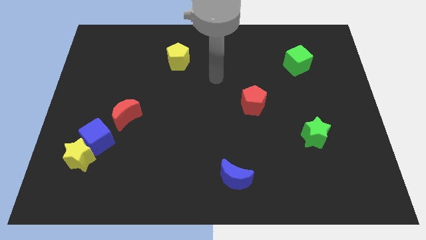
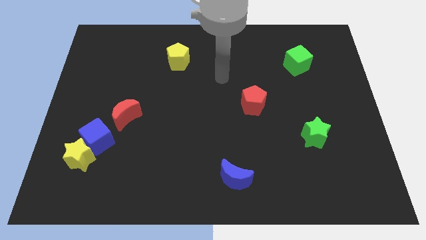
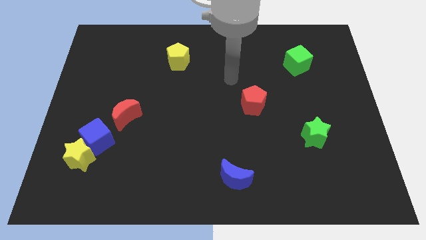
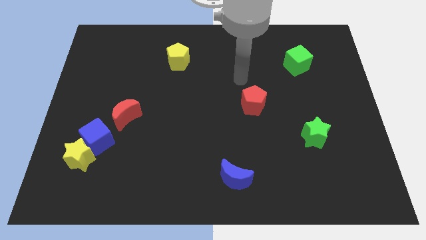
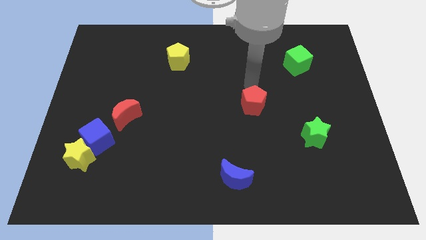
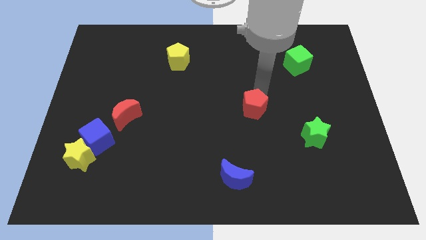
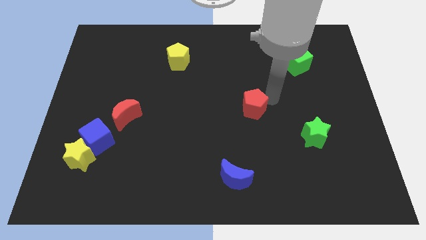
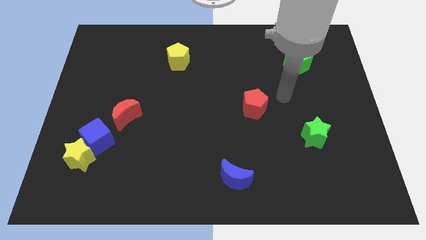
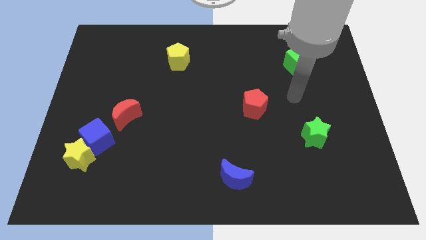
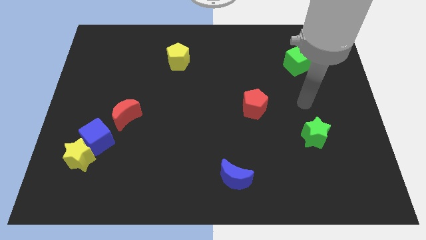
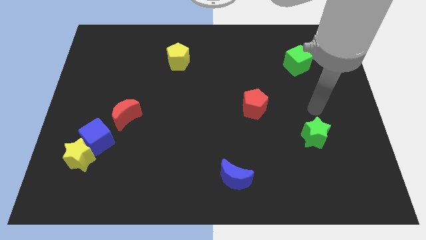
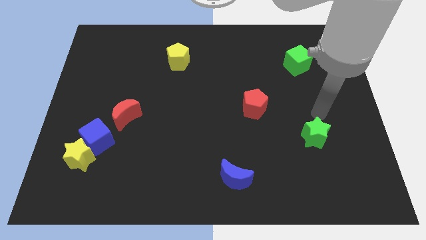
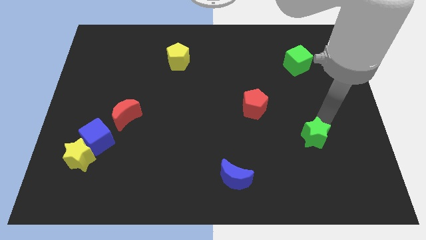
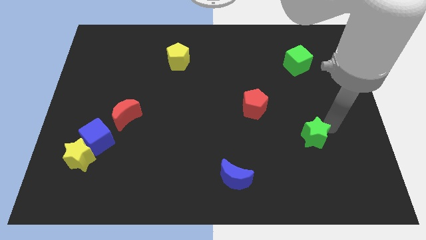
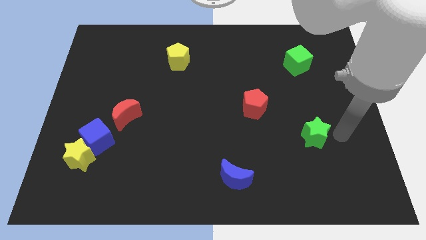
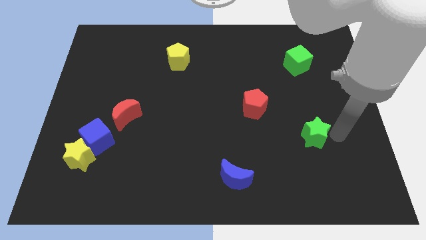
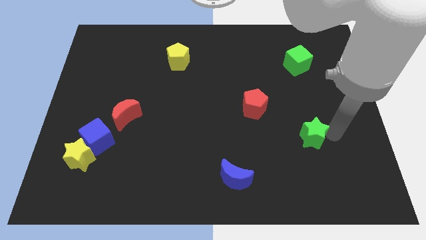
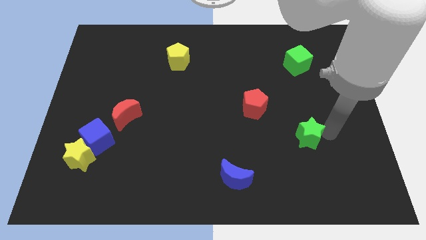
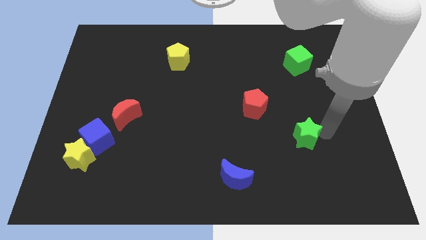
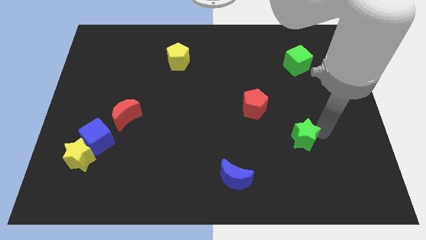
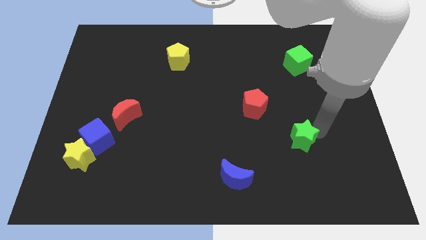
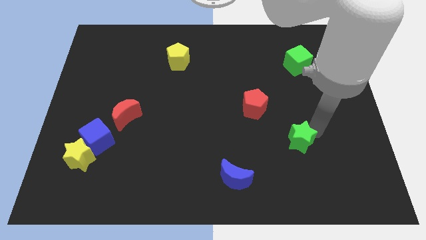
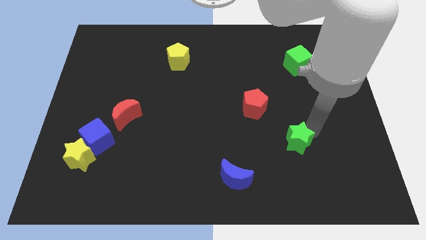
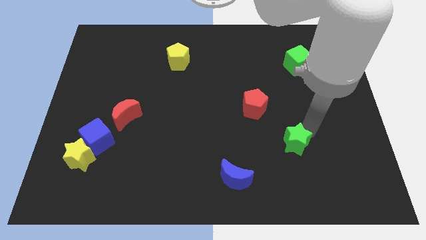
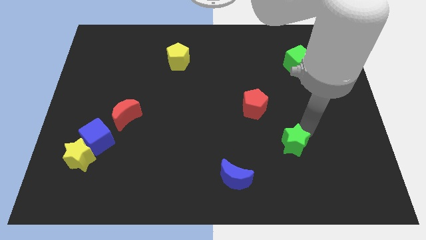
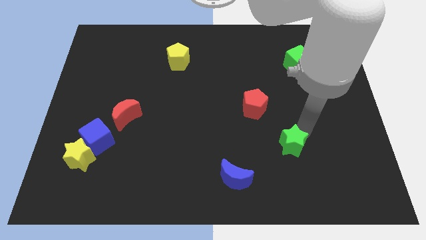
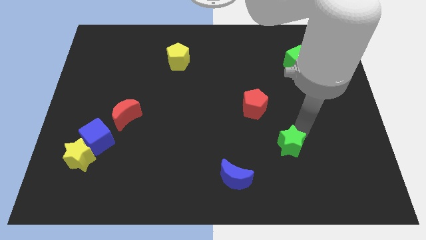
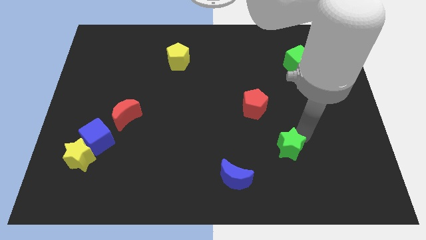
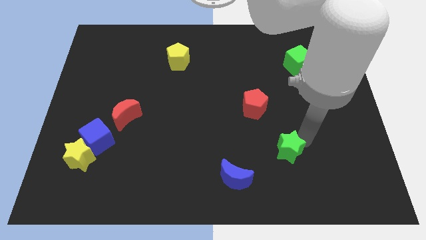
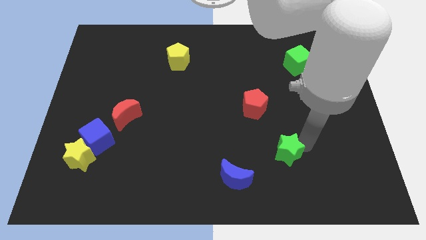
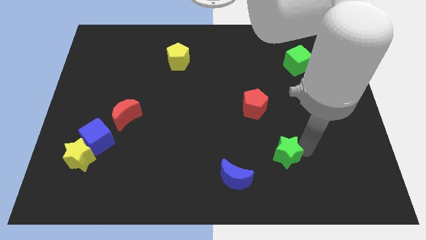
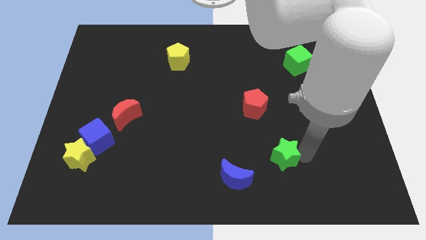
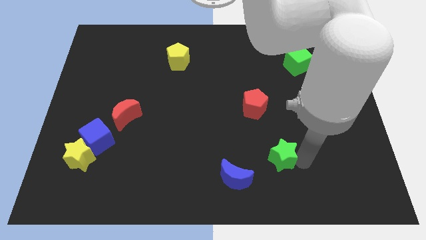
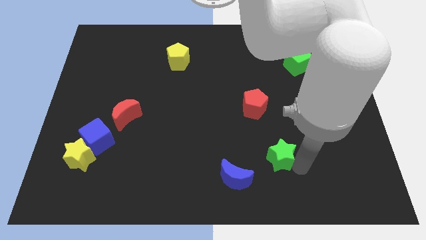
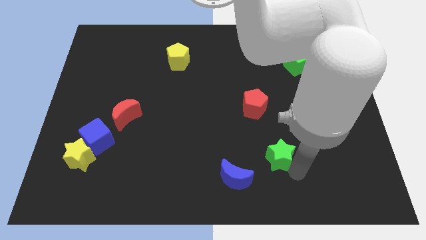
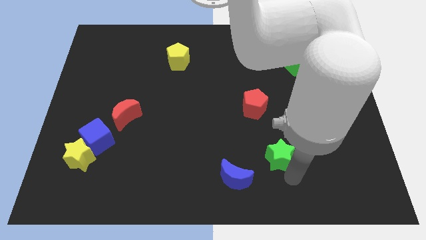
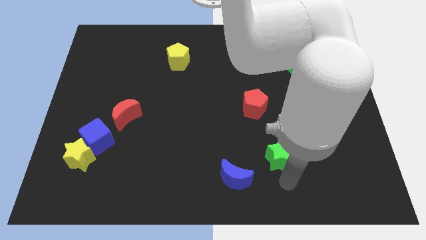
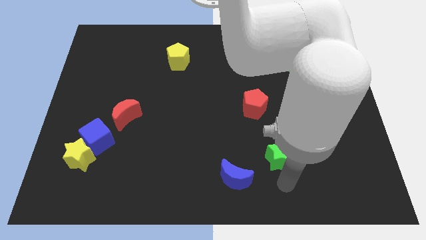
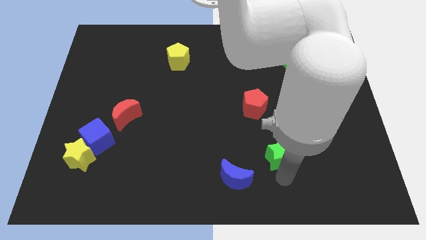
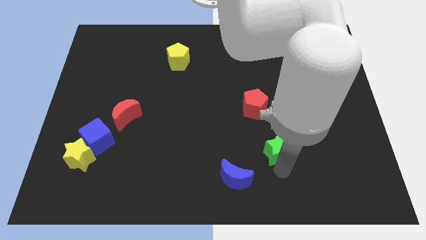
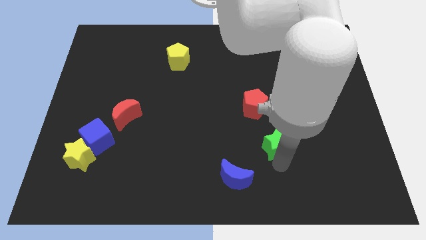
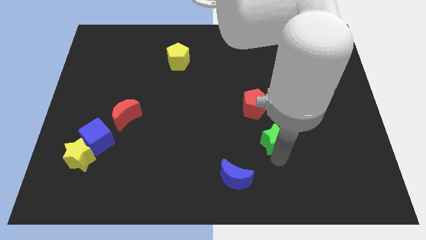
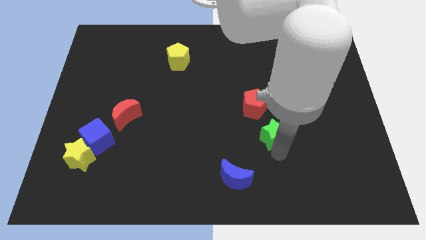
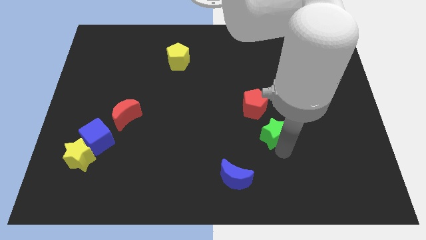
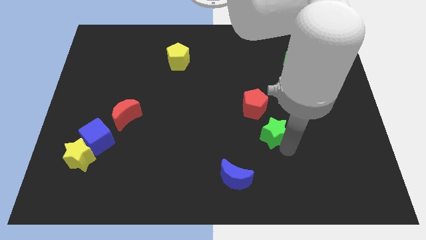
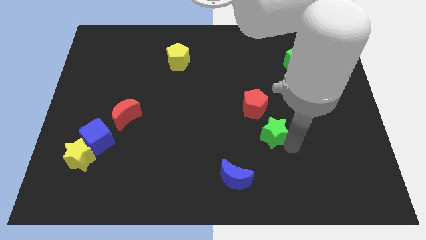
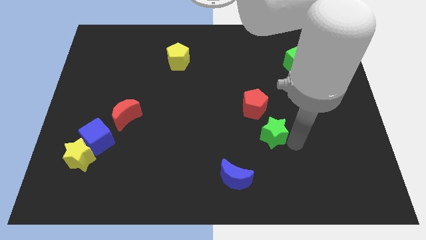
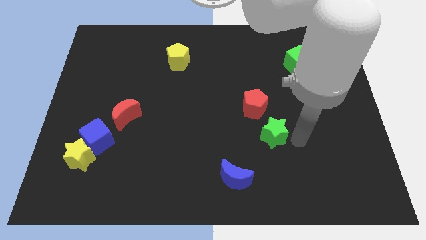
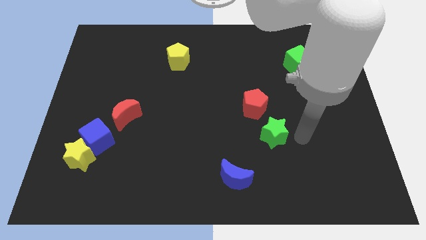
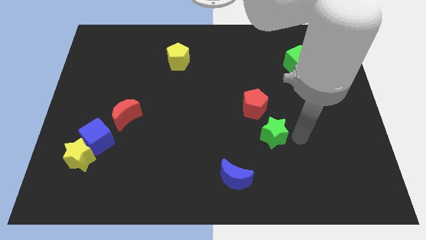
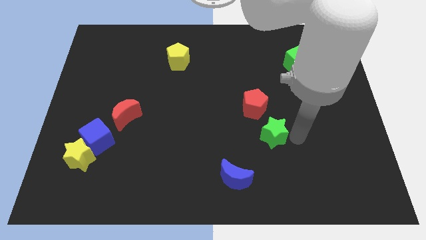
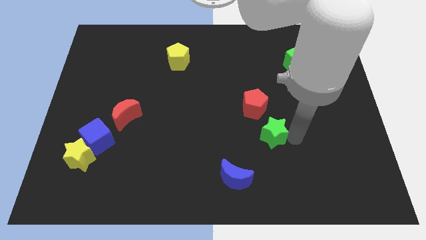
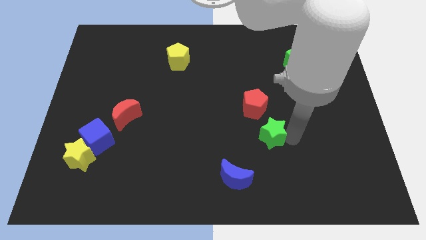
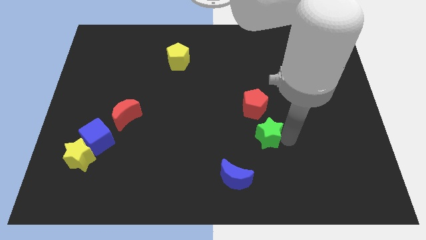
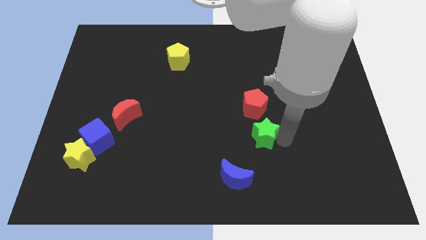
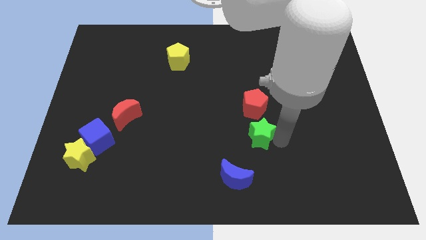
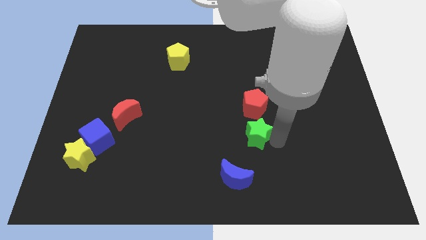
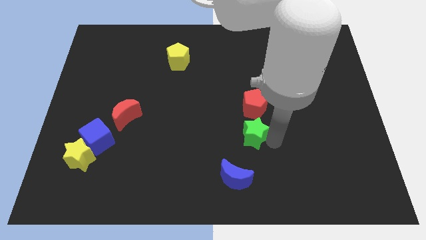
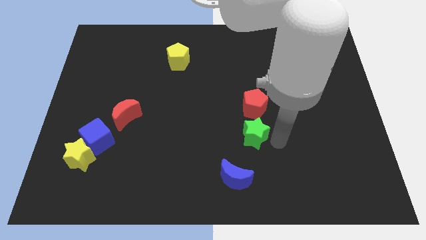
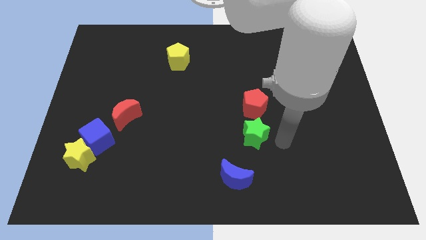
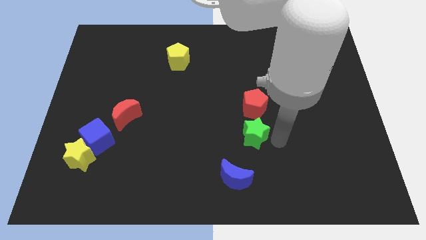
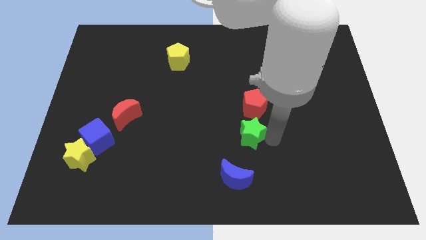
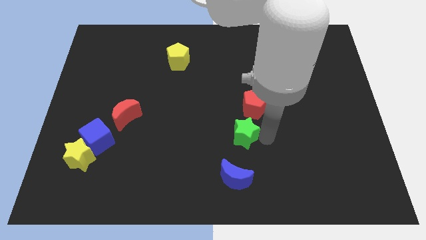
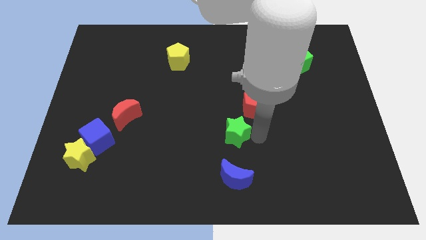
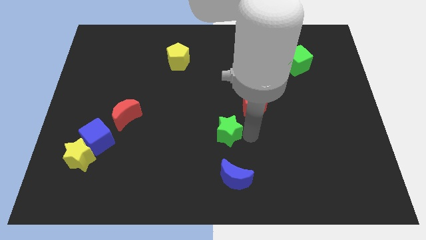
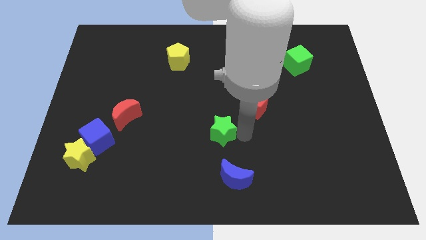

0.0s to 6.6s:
push the green star to the left

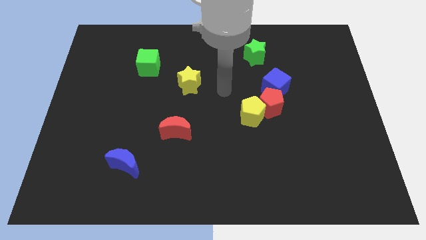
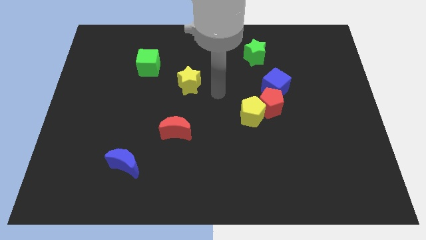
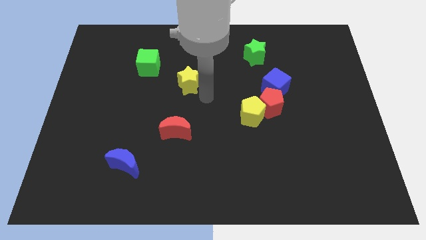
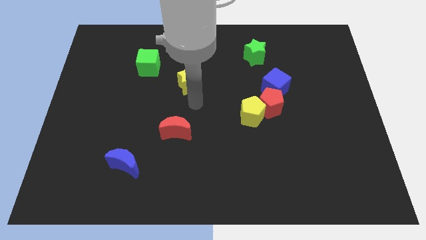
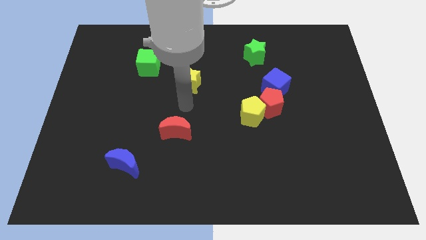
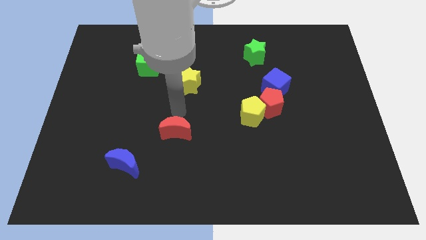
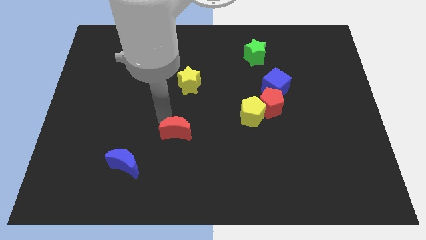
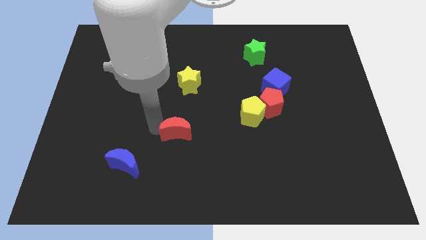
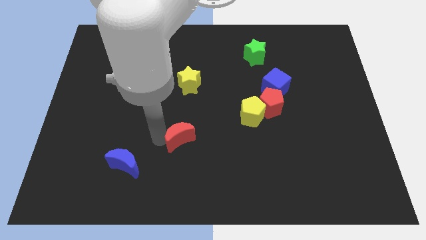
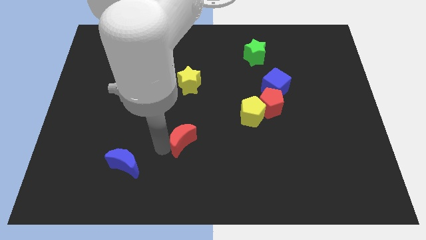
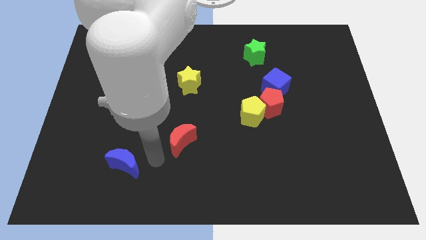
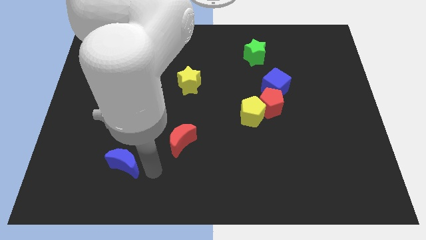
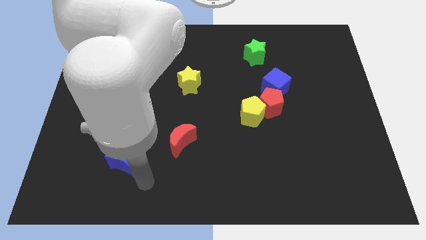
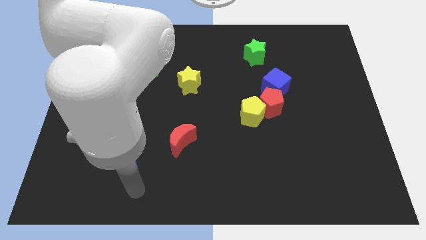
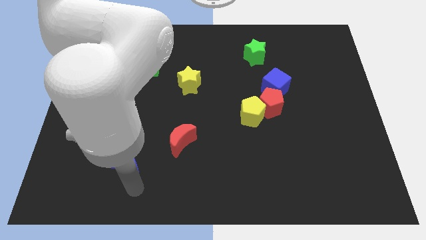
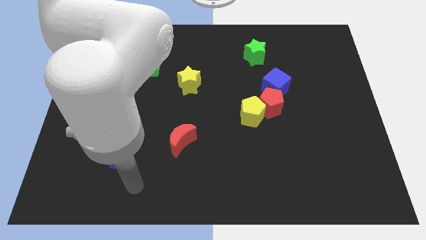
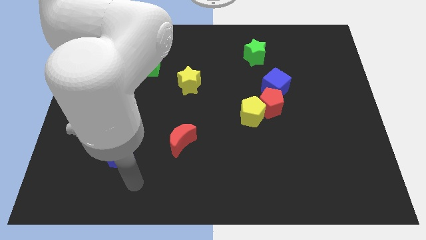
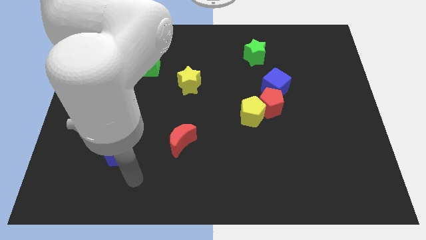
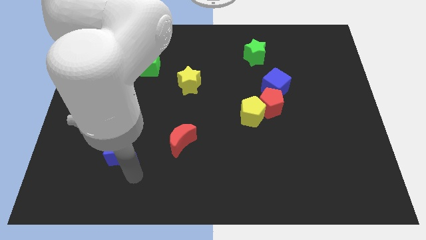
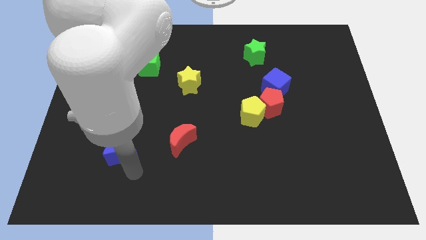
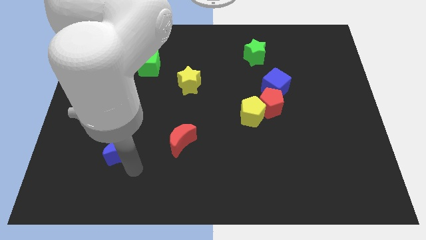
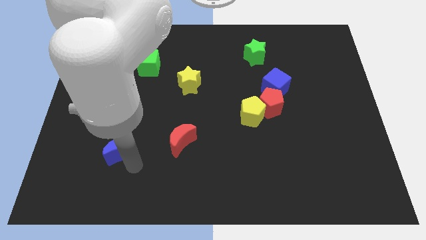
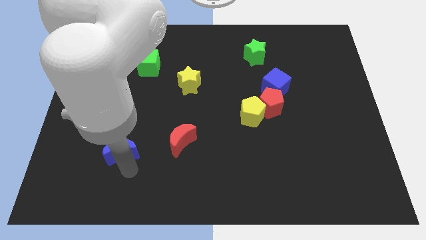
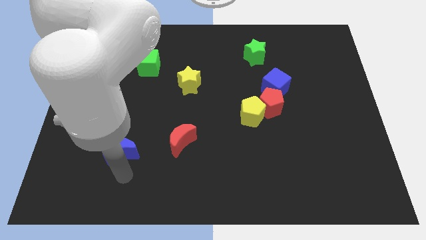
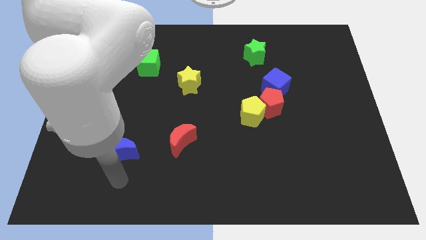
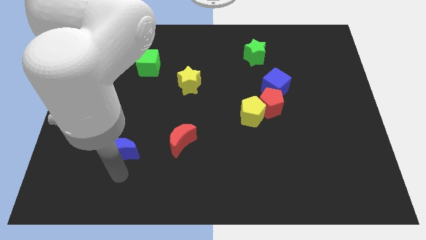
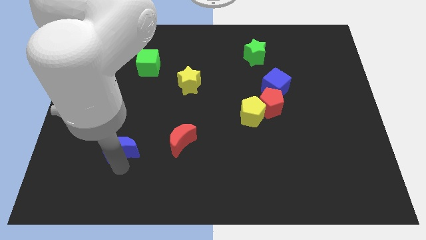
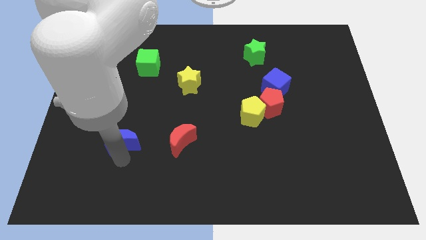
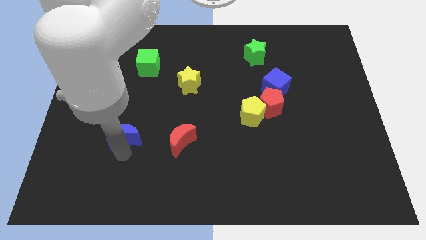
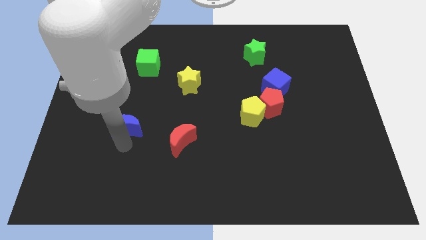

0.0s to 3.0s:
slightly move the blue moon up
